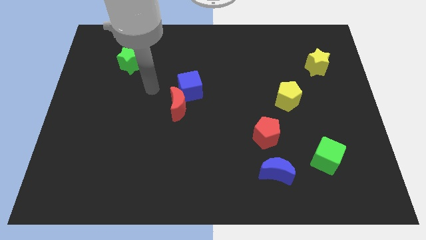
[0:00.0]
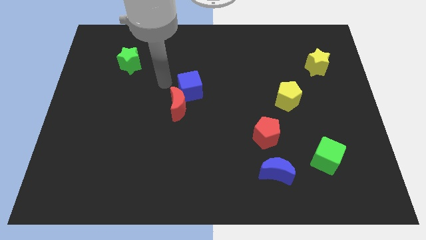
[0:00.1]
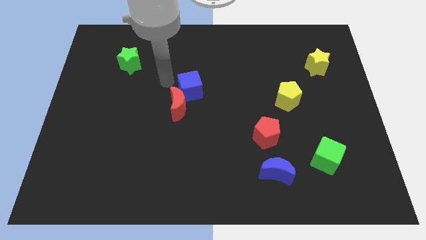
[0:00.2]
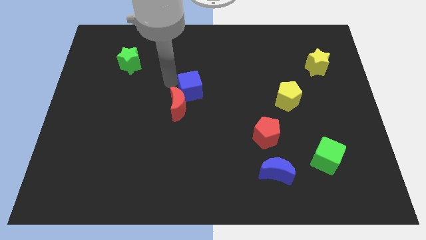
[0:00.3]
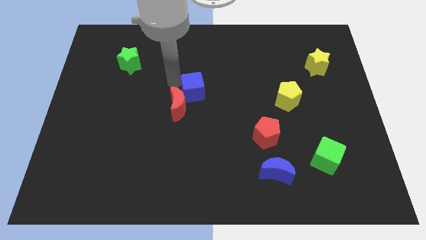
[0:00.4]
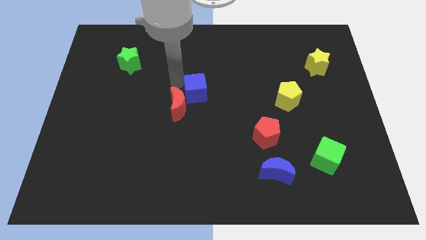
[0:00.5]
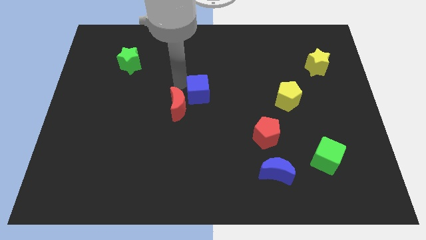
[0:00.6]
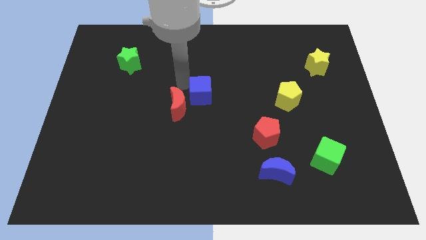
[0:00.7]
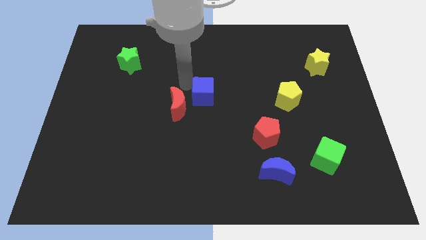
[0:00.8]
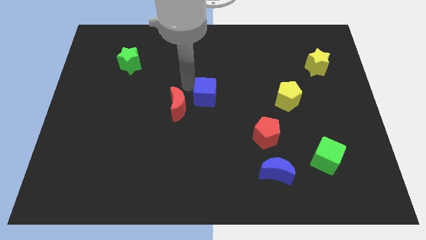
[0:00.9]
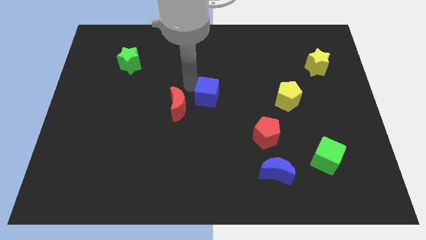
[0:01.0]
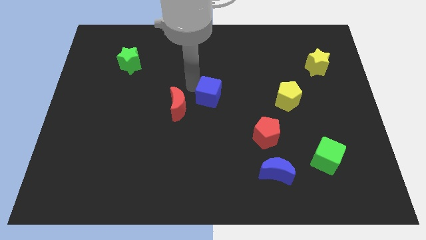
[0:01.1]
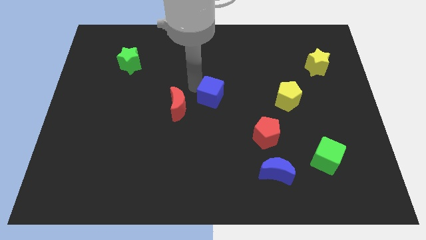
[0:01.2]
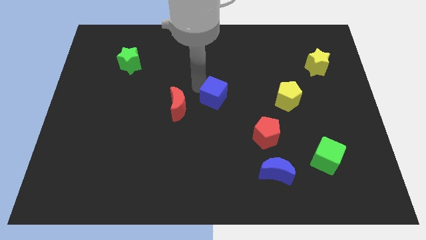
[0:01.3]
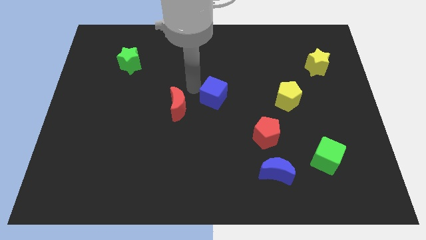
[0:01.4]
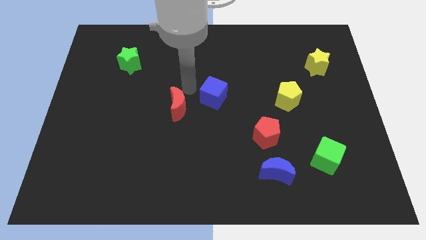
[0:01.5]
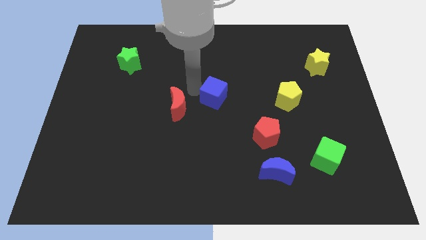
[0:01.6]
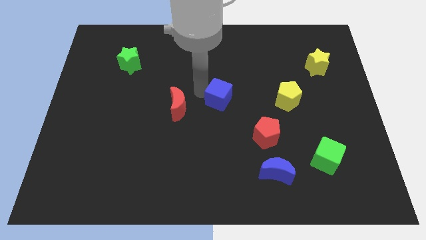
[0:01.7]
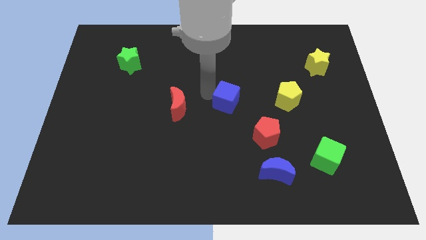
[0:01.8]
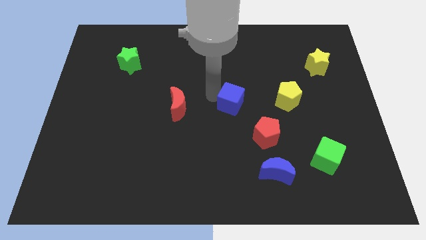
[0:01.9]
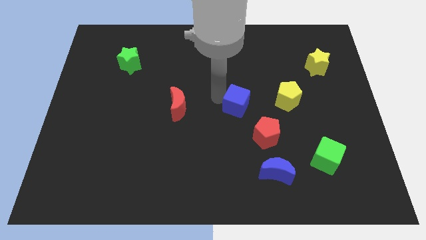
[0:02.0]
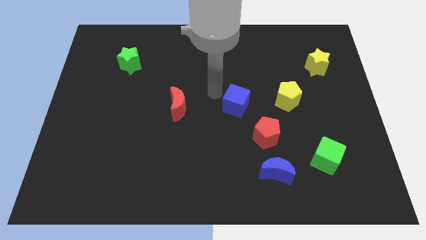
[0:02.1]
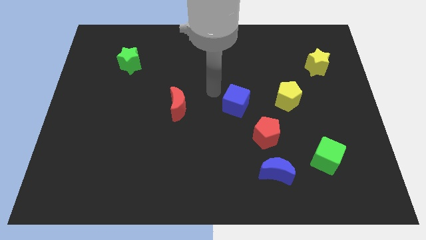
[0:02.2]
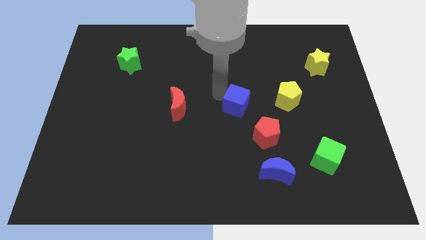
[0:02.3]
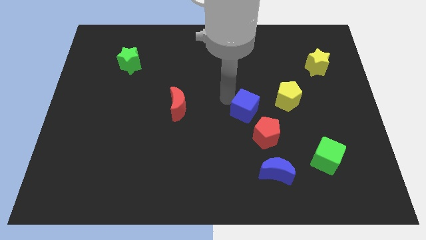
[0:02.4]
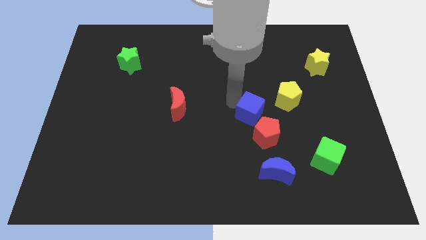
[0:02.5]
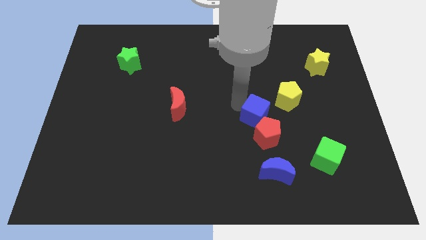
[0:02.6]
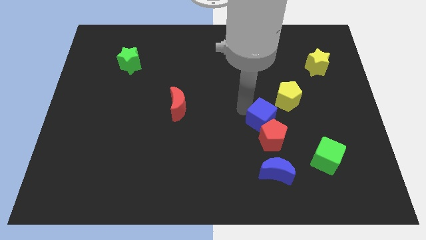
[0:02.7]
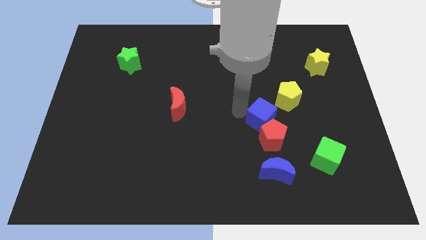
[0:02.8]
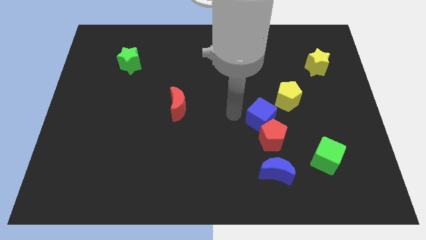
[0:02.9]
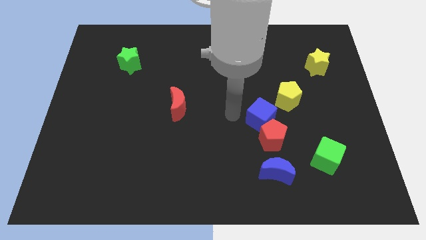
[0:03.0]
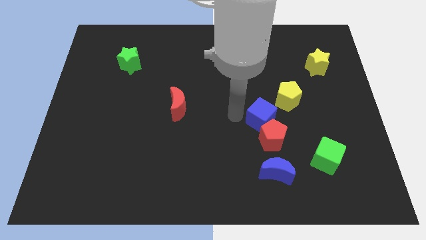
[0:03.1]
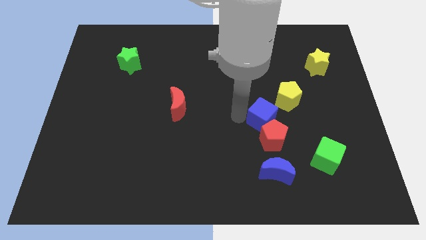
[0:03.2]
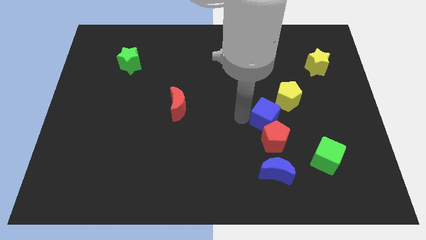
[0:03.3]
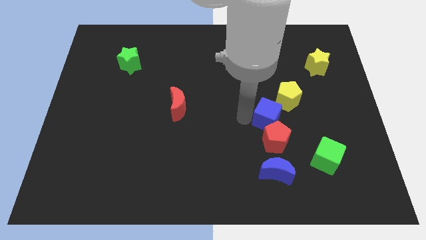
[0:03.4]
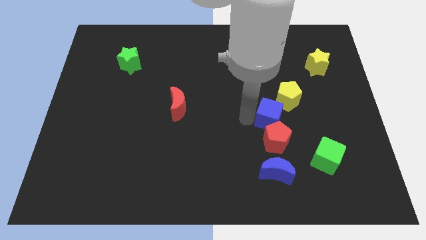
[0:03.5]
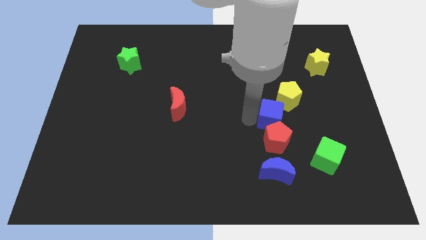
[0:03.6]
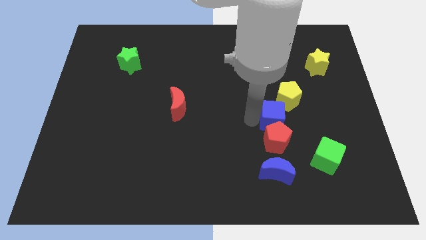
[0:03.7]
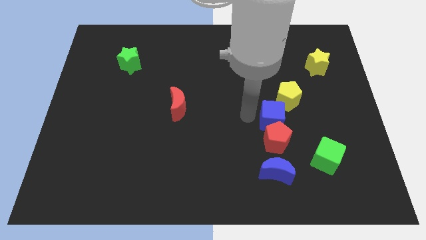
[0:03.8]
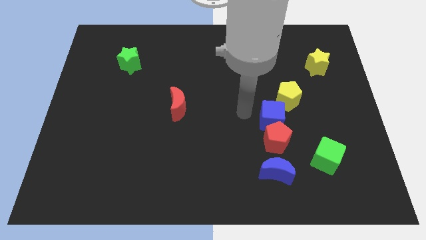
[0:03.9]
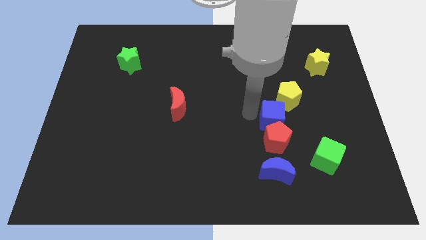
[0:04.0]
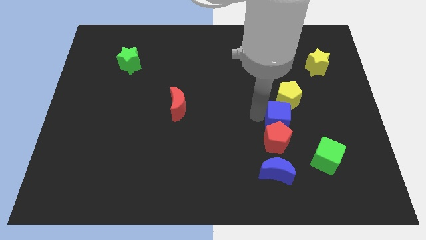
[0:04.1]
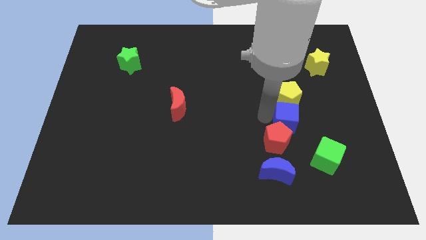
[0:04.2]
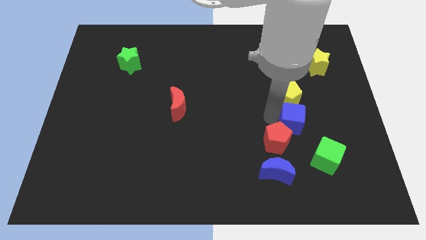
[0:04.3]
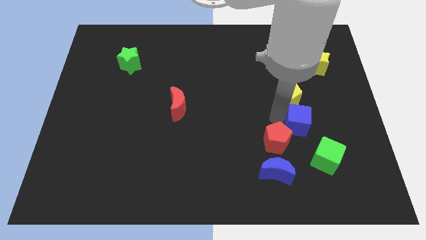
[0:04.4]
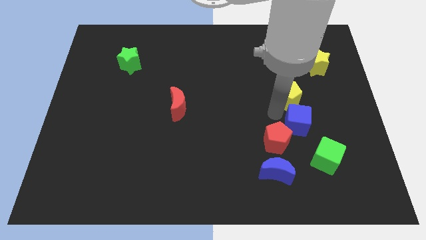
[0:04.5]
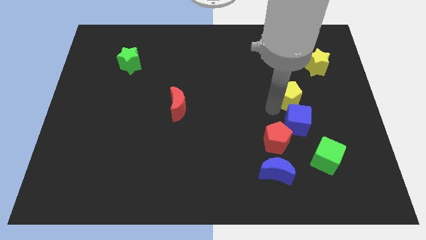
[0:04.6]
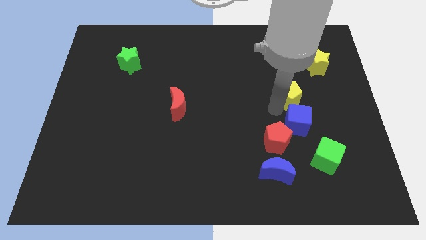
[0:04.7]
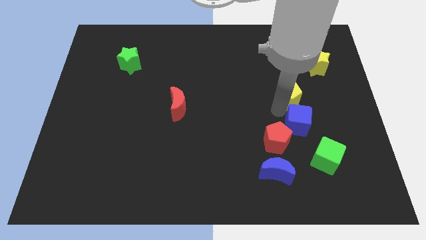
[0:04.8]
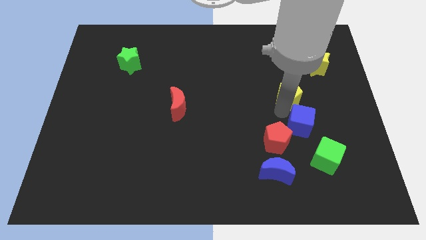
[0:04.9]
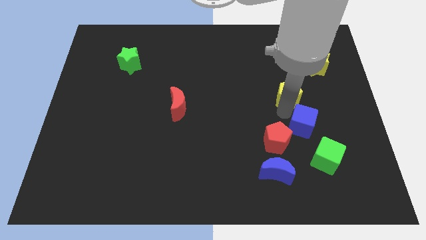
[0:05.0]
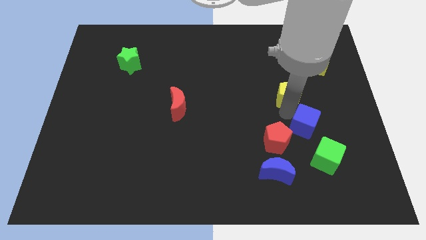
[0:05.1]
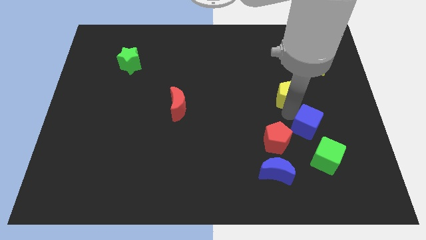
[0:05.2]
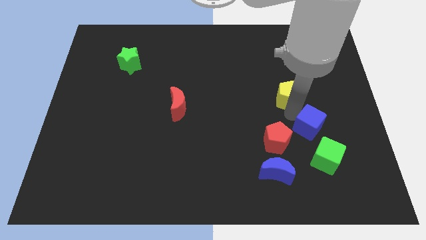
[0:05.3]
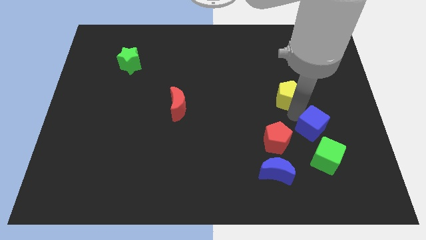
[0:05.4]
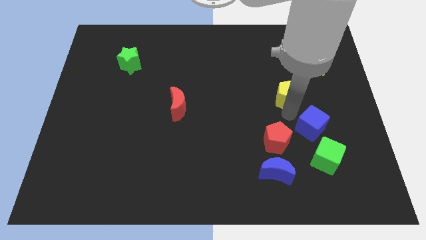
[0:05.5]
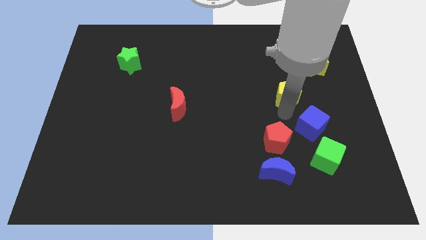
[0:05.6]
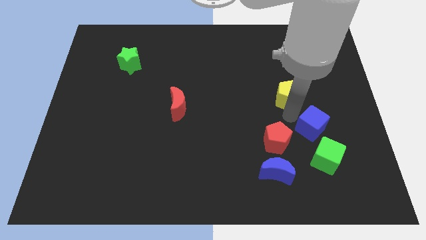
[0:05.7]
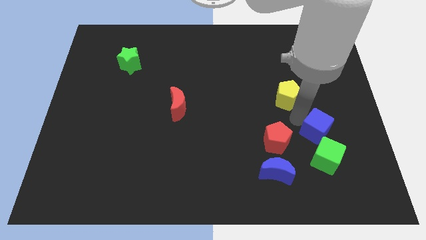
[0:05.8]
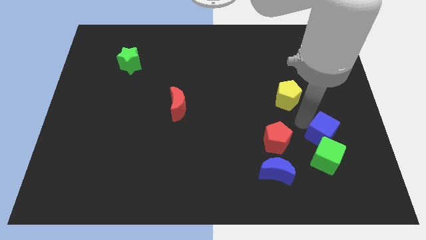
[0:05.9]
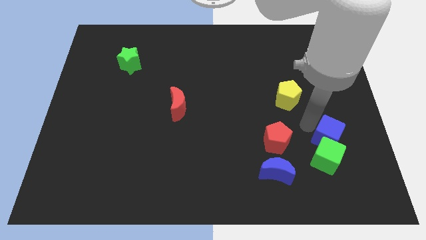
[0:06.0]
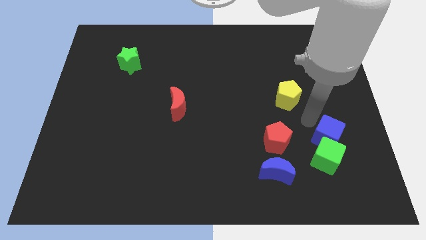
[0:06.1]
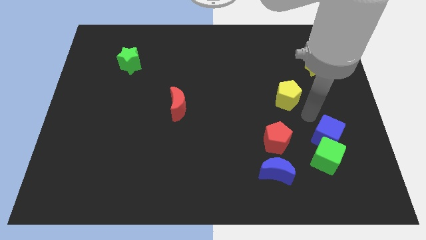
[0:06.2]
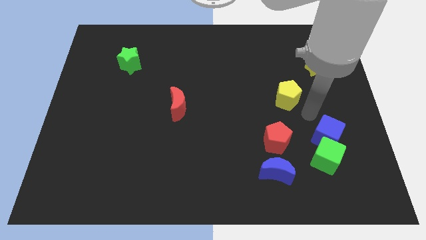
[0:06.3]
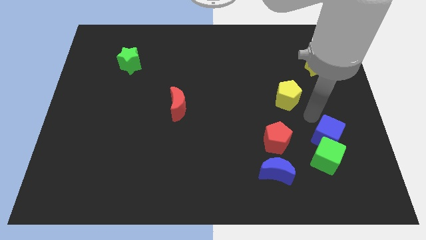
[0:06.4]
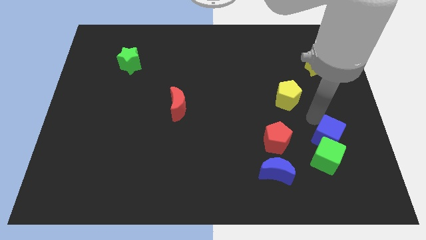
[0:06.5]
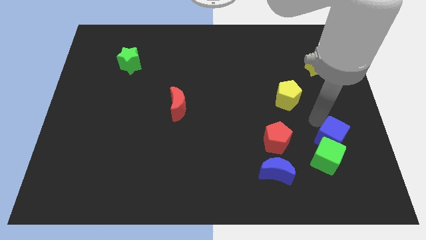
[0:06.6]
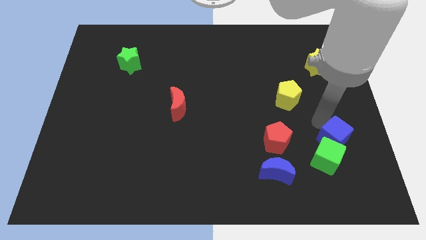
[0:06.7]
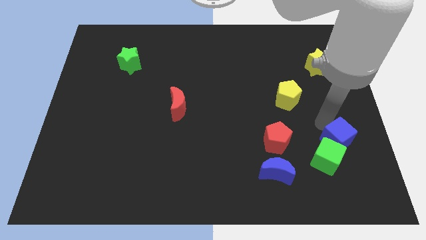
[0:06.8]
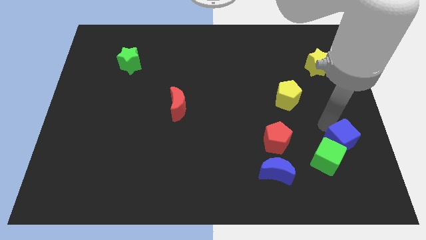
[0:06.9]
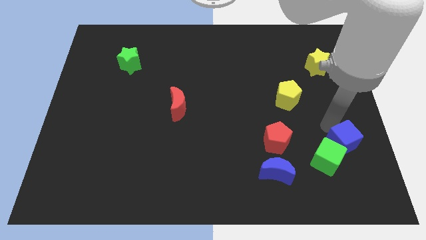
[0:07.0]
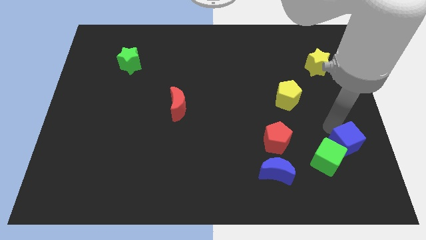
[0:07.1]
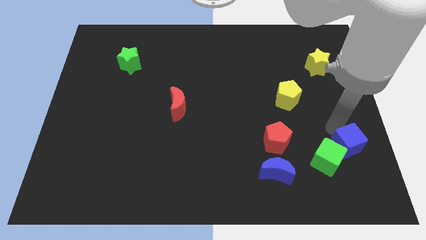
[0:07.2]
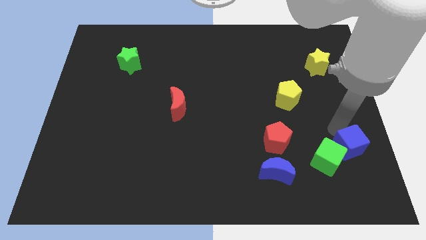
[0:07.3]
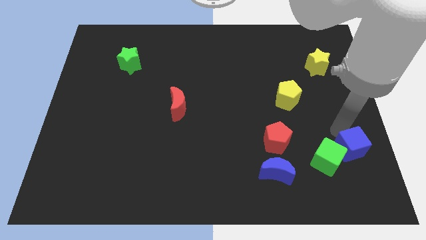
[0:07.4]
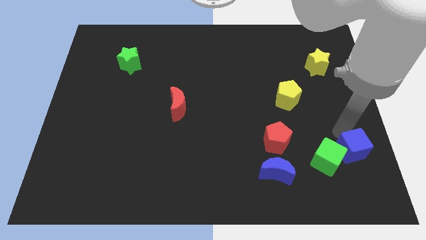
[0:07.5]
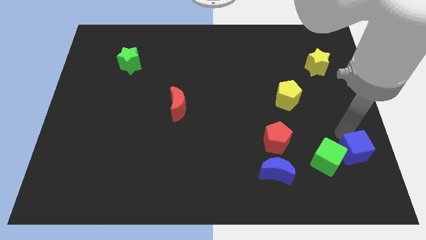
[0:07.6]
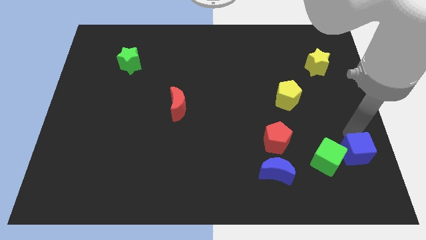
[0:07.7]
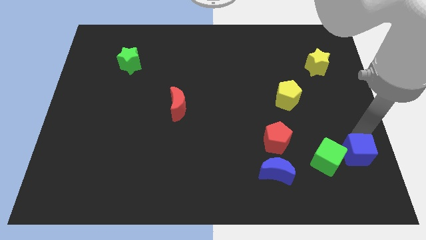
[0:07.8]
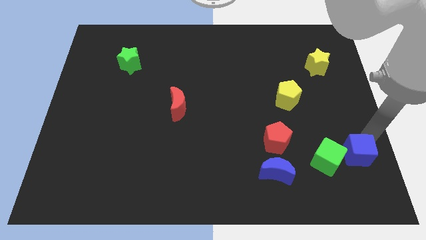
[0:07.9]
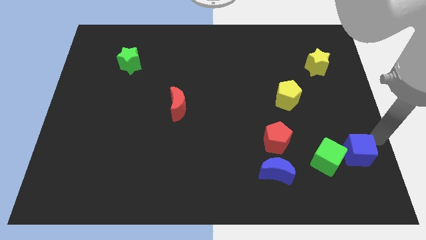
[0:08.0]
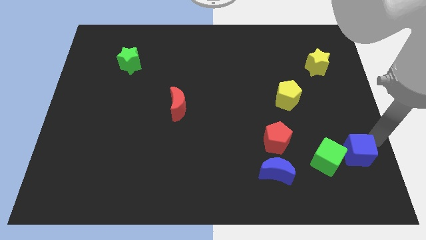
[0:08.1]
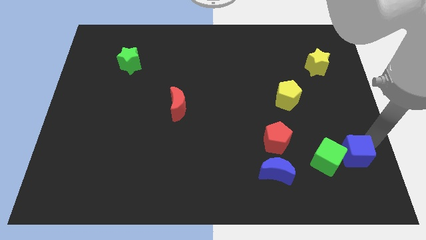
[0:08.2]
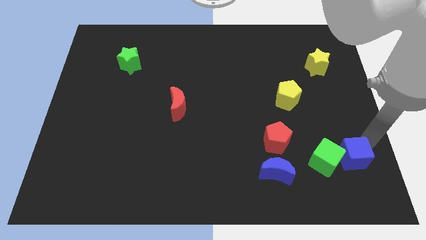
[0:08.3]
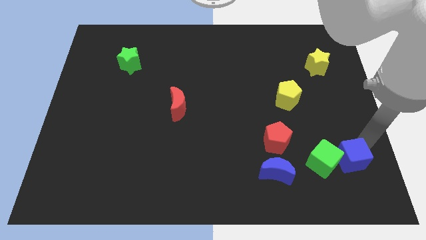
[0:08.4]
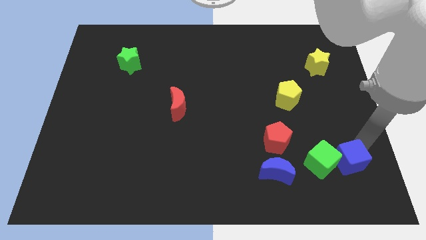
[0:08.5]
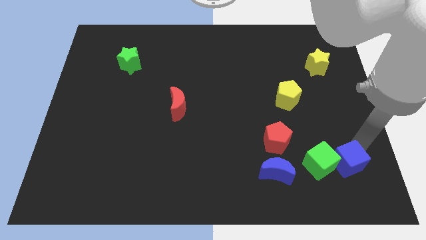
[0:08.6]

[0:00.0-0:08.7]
put the blue cube right of the blue moon
